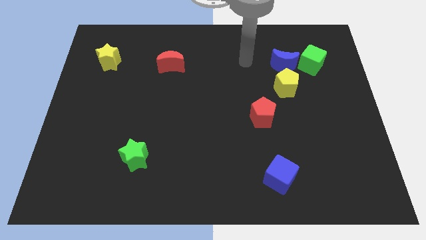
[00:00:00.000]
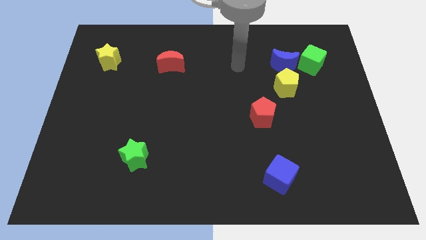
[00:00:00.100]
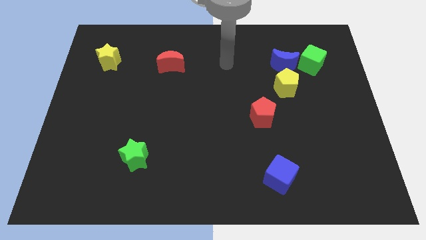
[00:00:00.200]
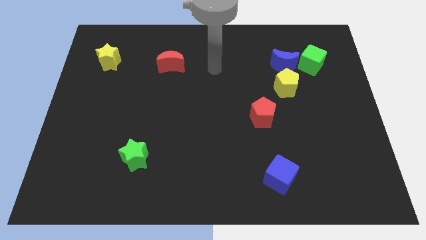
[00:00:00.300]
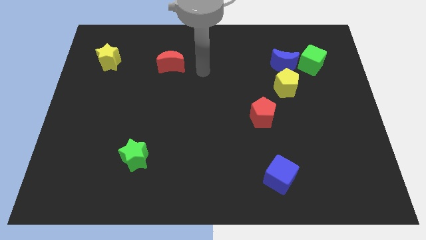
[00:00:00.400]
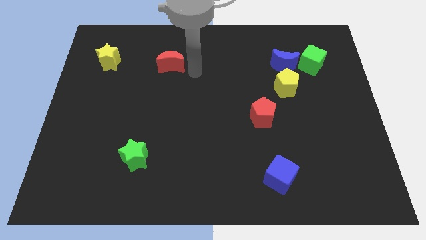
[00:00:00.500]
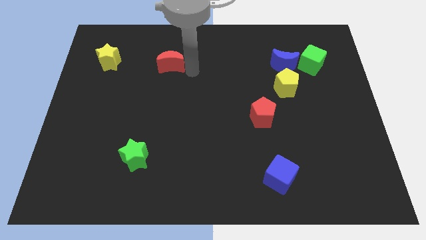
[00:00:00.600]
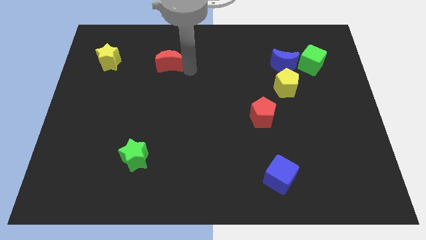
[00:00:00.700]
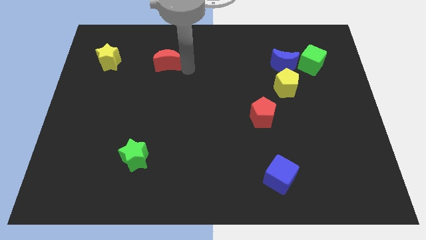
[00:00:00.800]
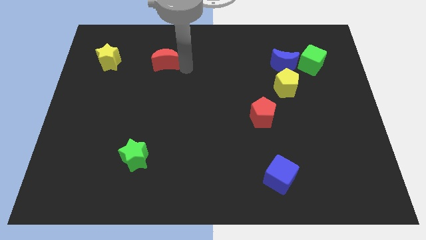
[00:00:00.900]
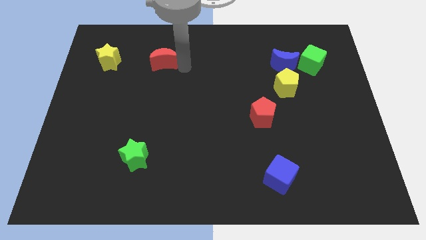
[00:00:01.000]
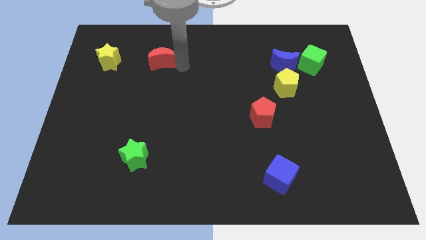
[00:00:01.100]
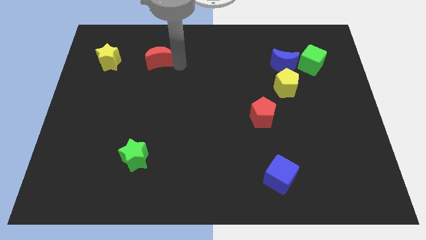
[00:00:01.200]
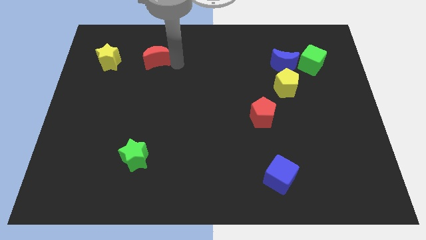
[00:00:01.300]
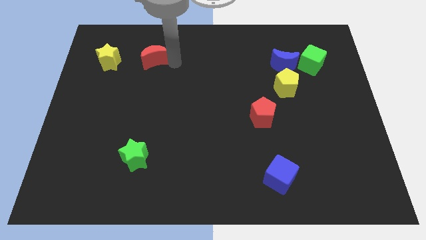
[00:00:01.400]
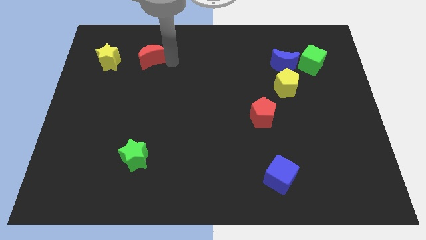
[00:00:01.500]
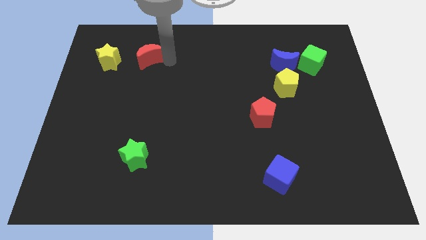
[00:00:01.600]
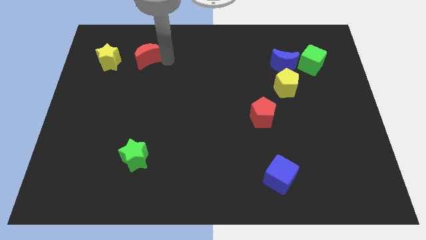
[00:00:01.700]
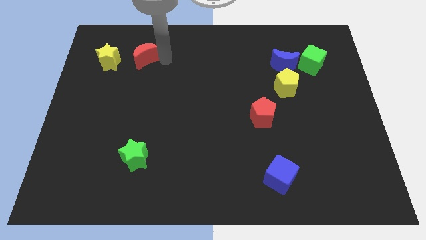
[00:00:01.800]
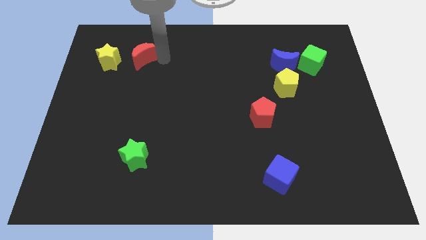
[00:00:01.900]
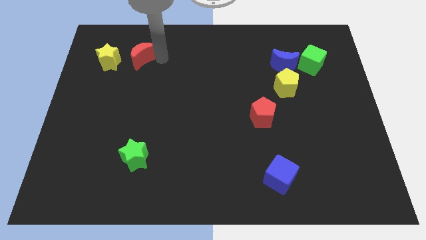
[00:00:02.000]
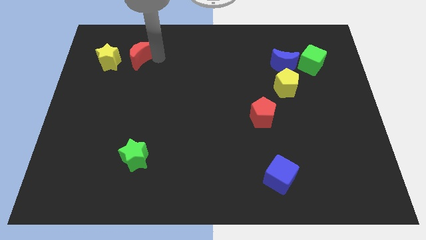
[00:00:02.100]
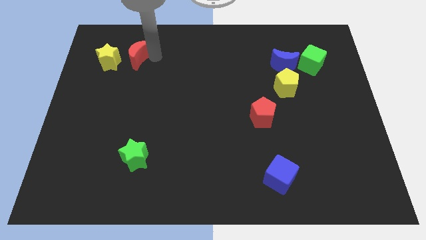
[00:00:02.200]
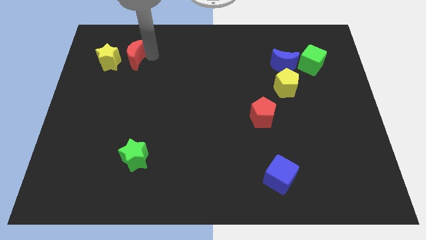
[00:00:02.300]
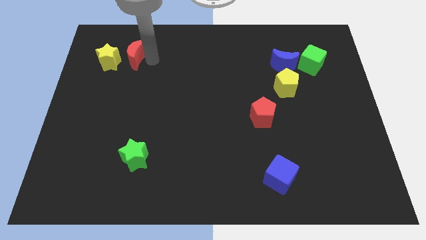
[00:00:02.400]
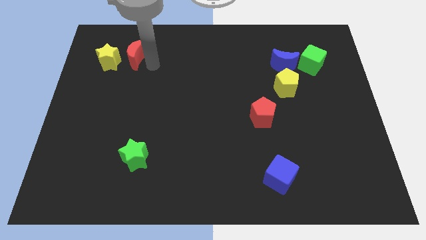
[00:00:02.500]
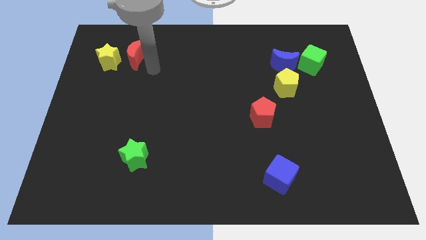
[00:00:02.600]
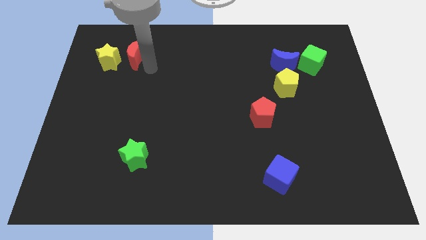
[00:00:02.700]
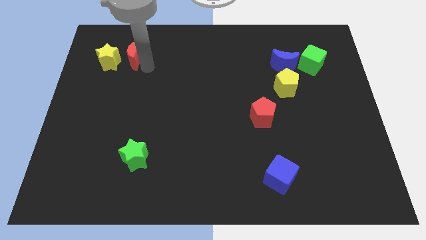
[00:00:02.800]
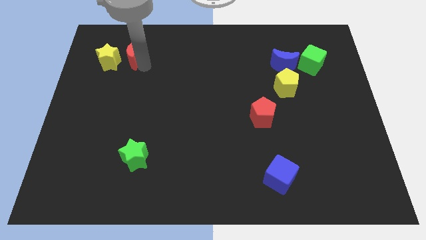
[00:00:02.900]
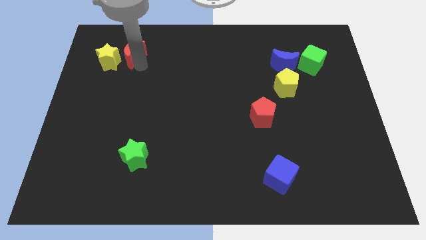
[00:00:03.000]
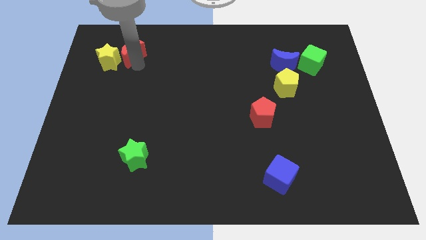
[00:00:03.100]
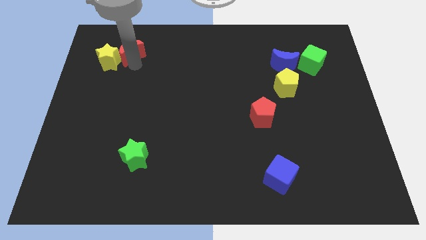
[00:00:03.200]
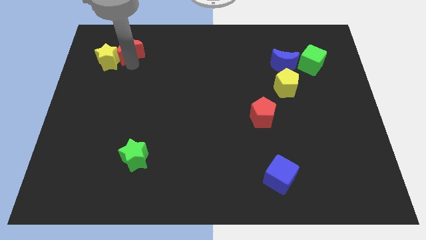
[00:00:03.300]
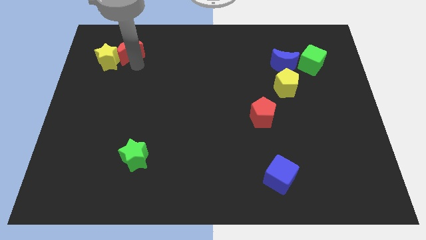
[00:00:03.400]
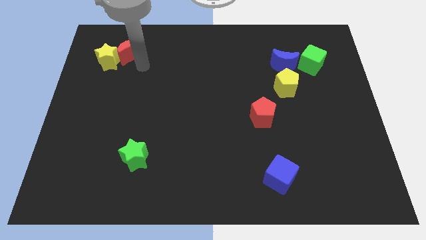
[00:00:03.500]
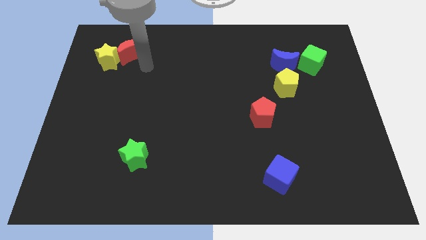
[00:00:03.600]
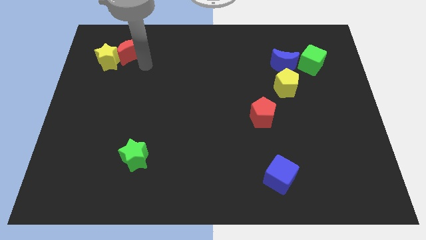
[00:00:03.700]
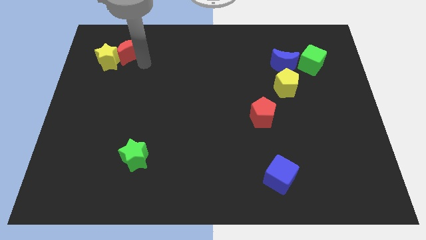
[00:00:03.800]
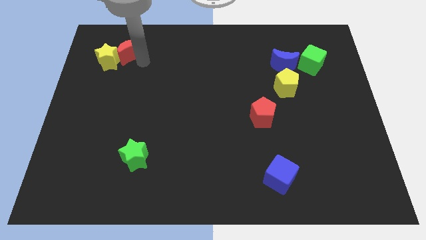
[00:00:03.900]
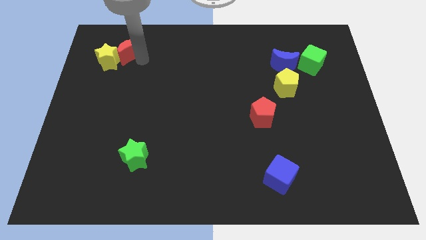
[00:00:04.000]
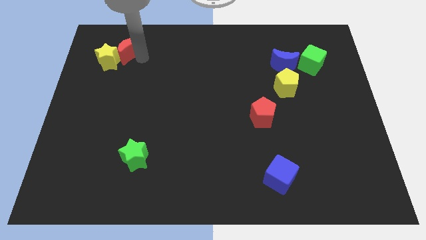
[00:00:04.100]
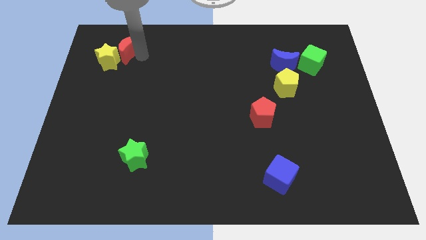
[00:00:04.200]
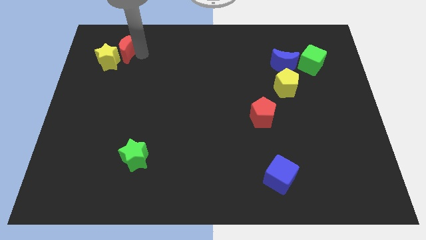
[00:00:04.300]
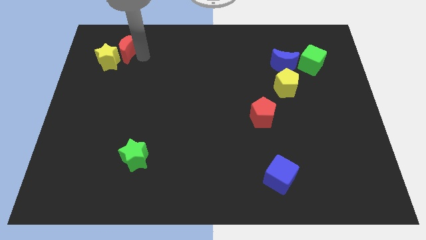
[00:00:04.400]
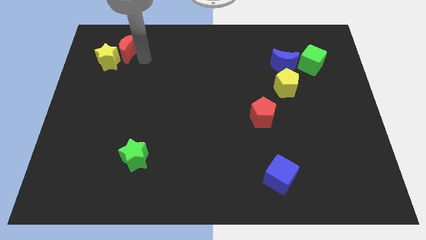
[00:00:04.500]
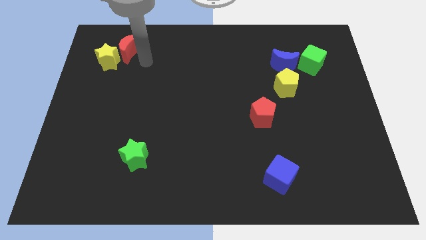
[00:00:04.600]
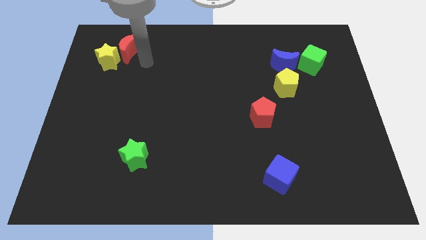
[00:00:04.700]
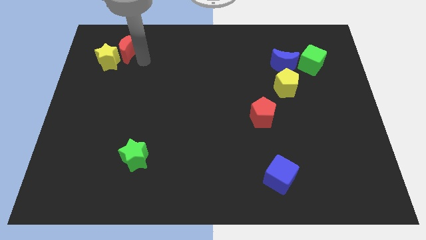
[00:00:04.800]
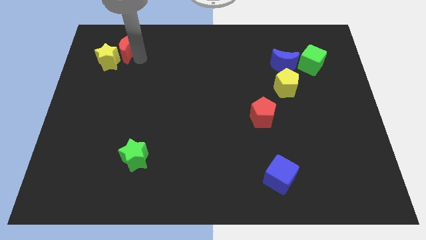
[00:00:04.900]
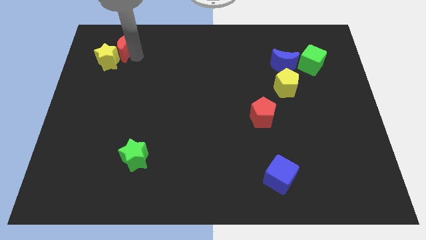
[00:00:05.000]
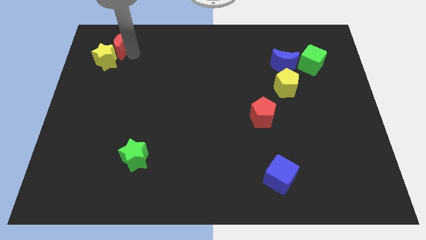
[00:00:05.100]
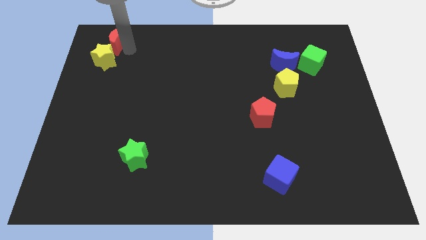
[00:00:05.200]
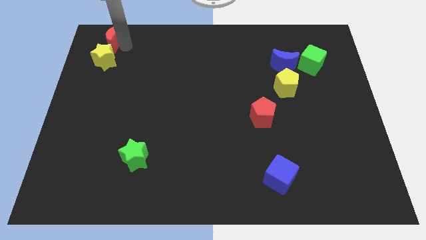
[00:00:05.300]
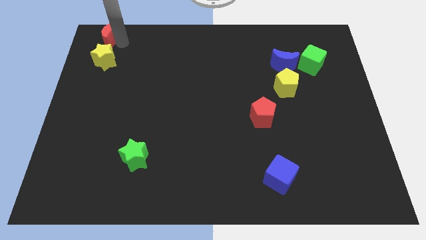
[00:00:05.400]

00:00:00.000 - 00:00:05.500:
slide the red moon to the top left

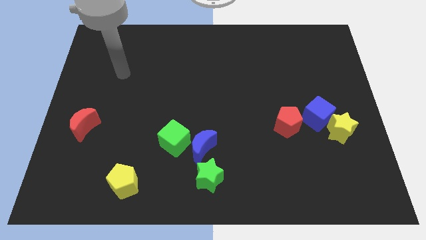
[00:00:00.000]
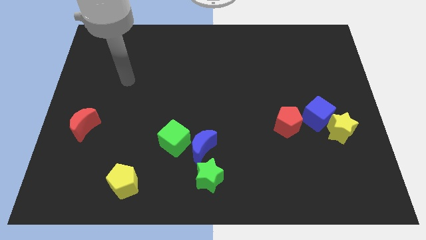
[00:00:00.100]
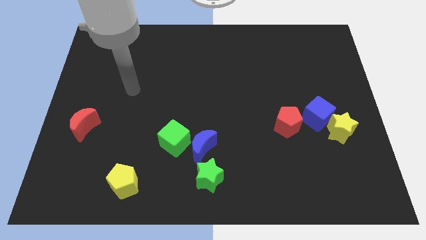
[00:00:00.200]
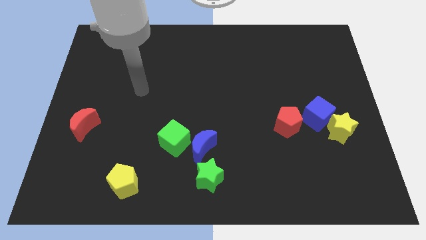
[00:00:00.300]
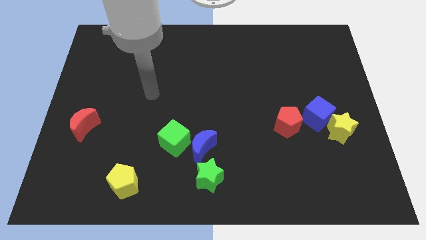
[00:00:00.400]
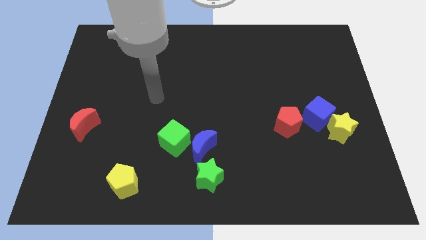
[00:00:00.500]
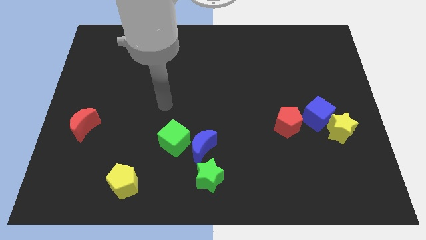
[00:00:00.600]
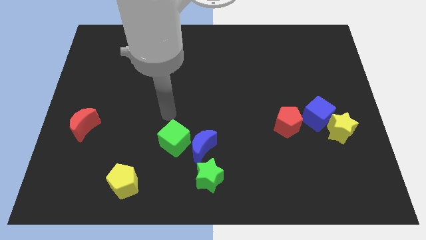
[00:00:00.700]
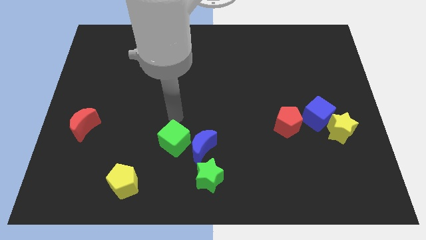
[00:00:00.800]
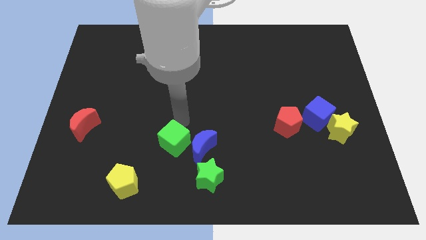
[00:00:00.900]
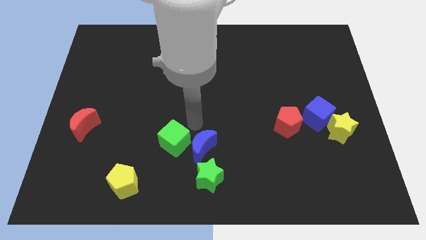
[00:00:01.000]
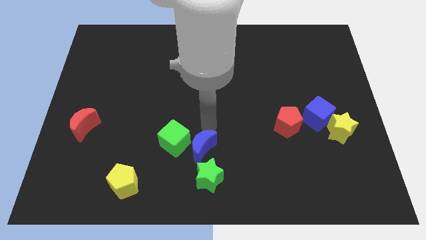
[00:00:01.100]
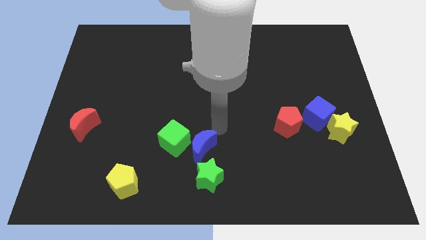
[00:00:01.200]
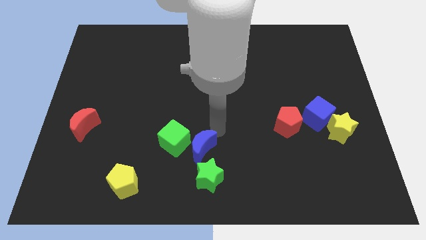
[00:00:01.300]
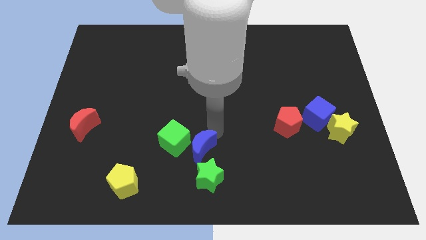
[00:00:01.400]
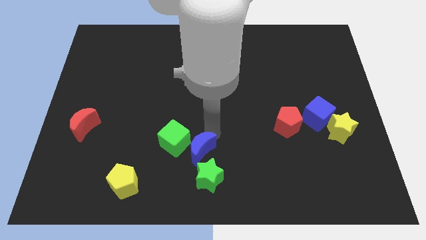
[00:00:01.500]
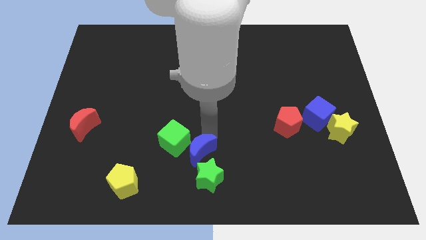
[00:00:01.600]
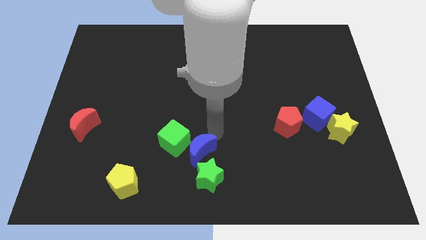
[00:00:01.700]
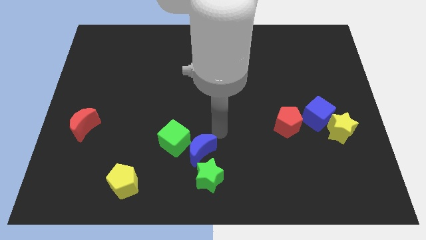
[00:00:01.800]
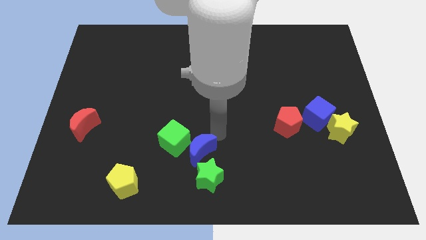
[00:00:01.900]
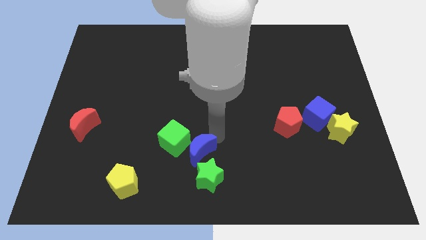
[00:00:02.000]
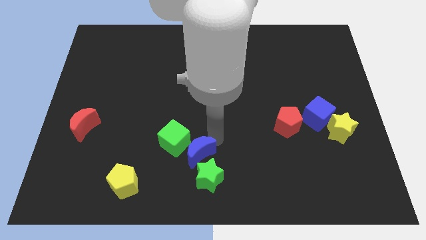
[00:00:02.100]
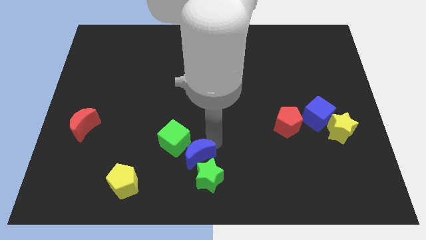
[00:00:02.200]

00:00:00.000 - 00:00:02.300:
put the blue moon to the bottom side
